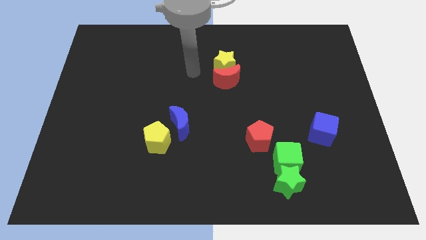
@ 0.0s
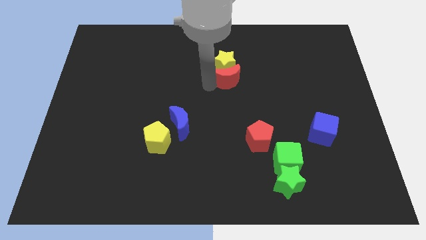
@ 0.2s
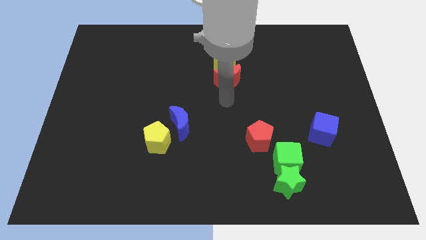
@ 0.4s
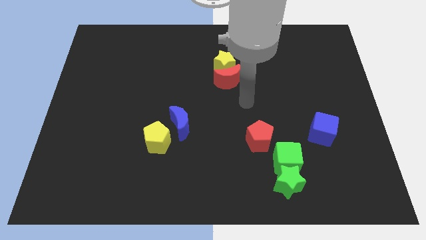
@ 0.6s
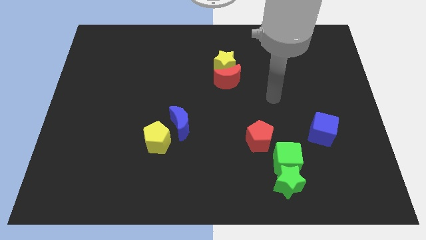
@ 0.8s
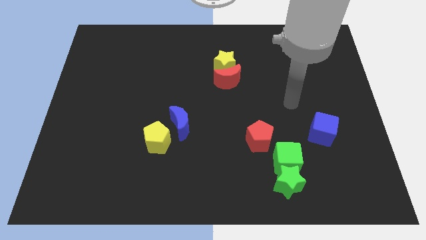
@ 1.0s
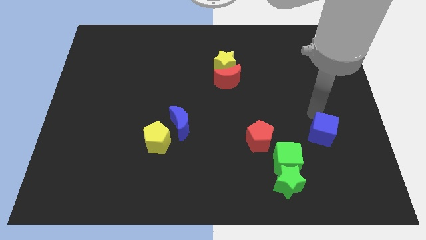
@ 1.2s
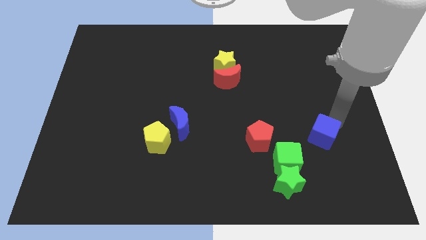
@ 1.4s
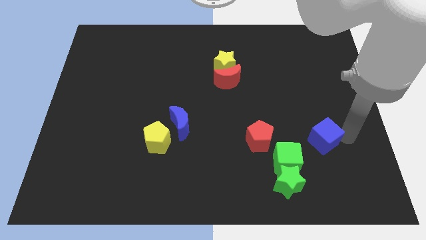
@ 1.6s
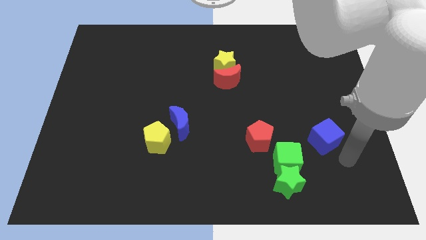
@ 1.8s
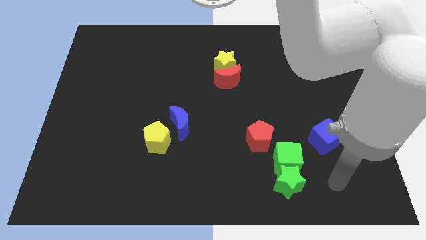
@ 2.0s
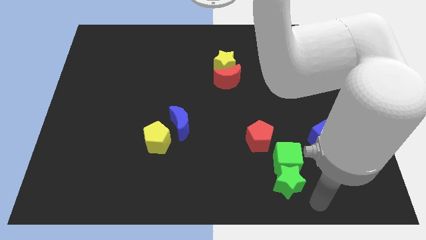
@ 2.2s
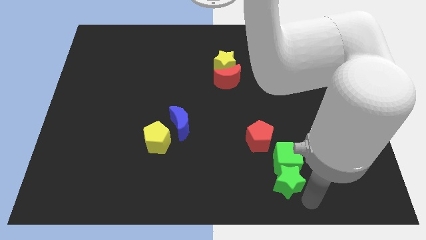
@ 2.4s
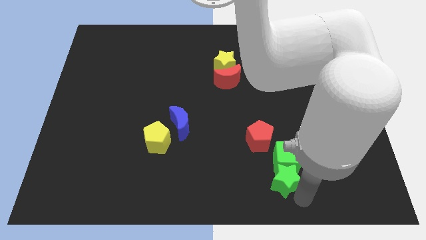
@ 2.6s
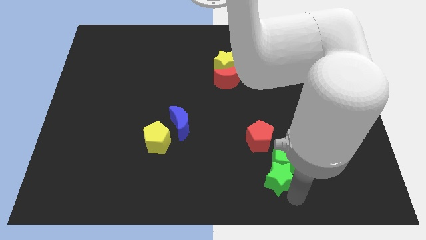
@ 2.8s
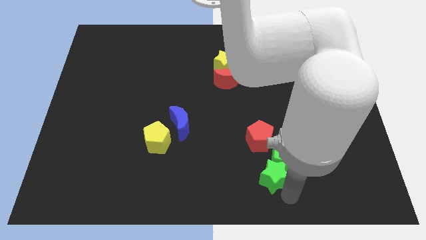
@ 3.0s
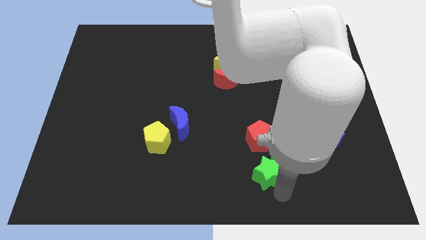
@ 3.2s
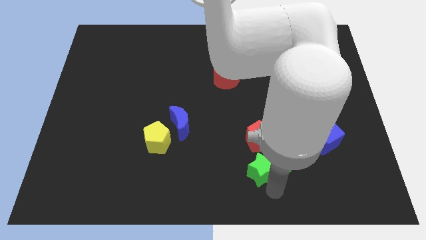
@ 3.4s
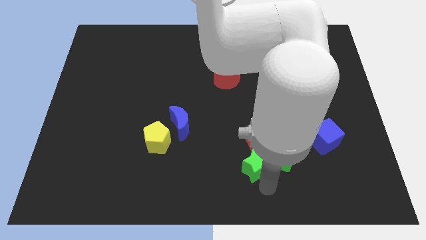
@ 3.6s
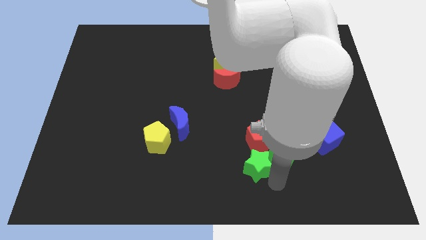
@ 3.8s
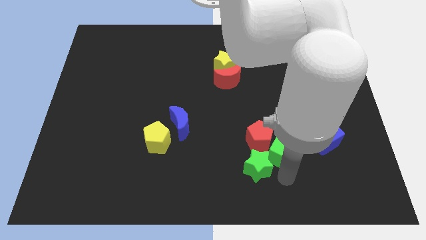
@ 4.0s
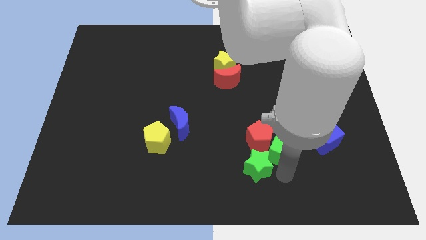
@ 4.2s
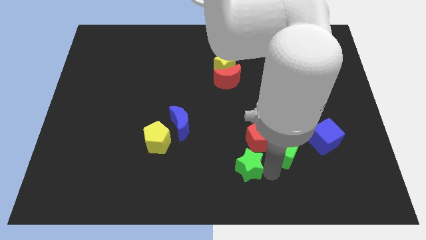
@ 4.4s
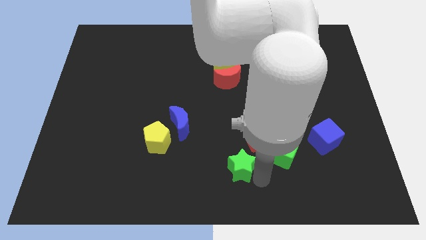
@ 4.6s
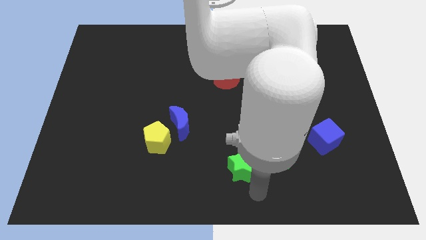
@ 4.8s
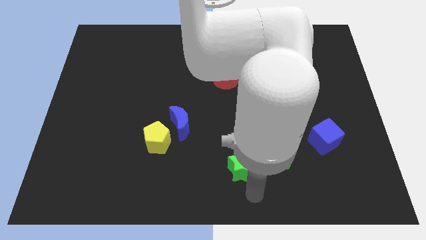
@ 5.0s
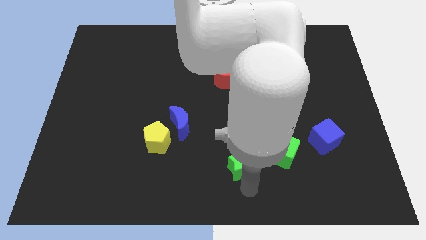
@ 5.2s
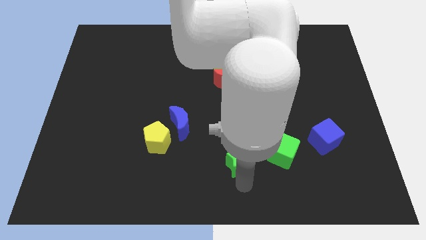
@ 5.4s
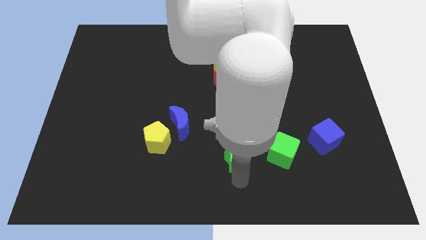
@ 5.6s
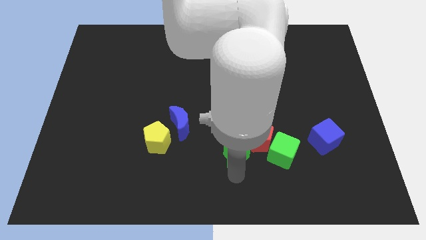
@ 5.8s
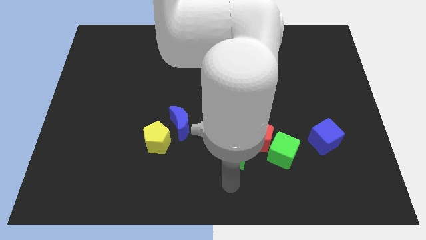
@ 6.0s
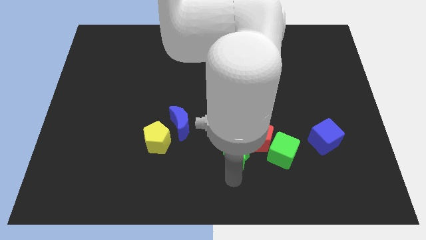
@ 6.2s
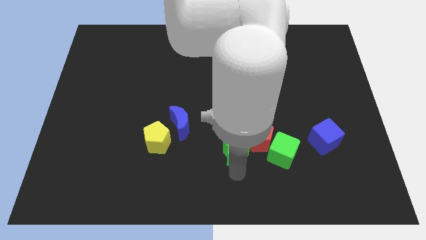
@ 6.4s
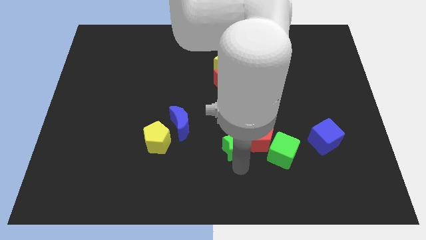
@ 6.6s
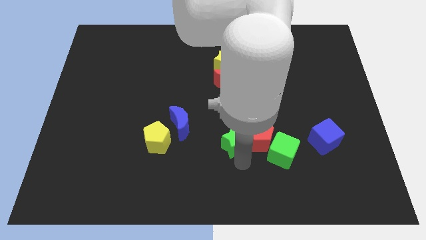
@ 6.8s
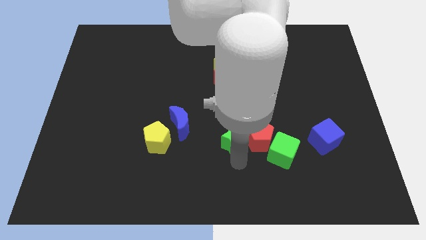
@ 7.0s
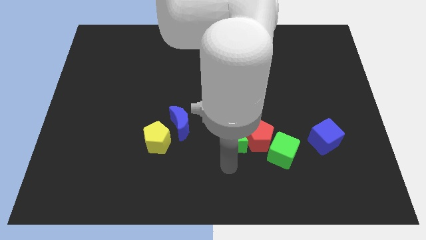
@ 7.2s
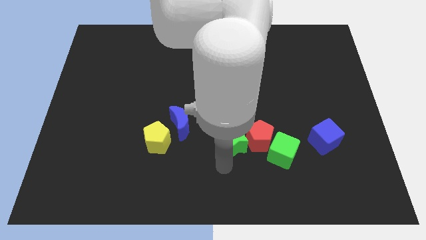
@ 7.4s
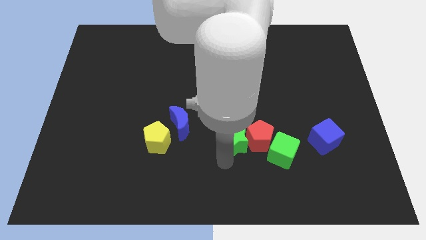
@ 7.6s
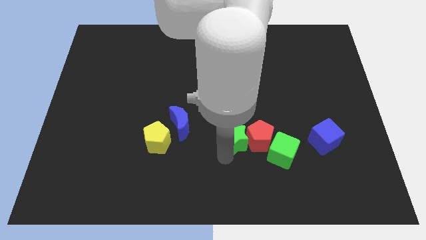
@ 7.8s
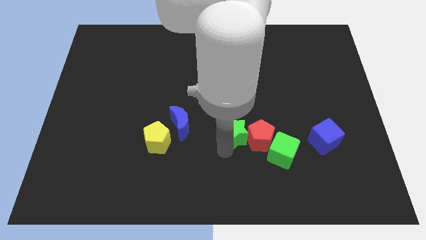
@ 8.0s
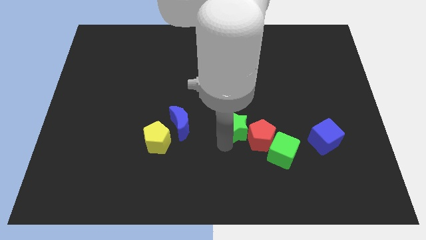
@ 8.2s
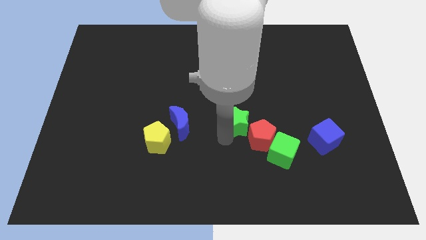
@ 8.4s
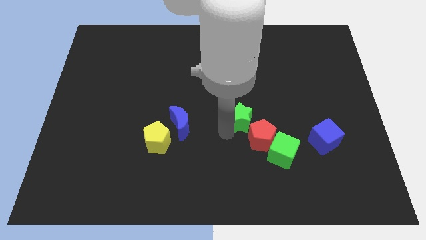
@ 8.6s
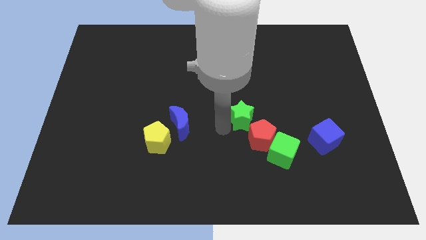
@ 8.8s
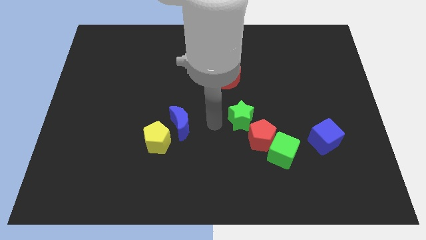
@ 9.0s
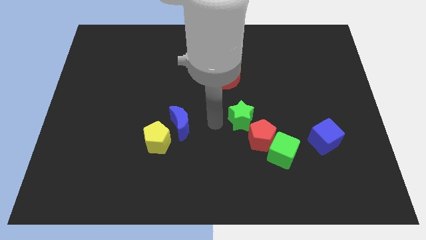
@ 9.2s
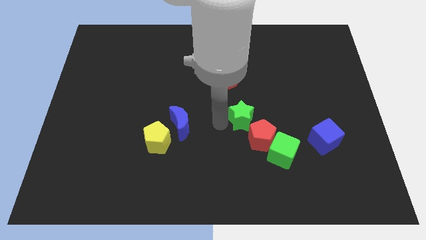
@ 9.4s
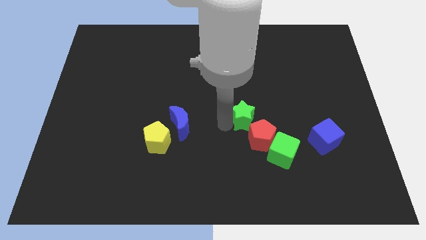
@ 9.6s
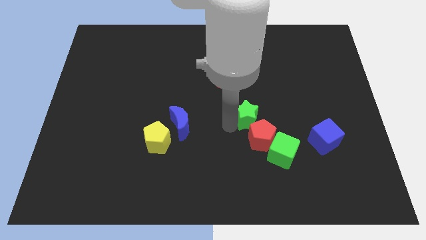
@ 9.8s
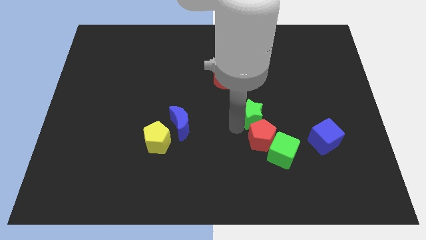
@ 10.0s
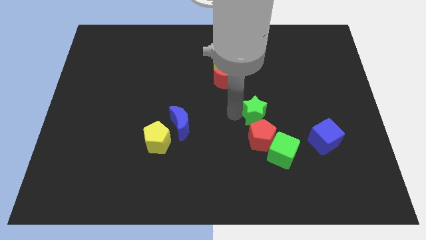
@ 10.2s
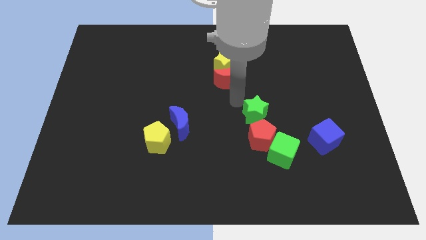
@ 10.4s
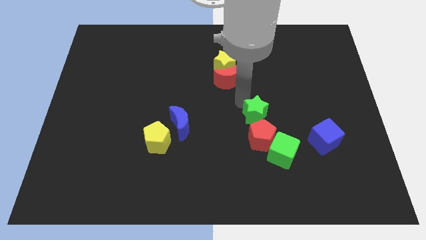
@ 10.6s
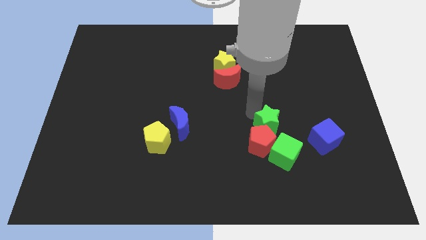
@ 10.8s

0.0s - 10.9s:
put the green star just left of the blue cube

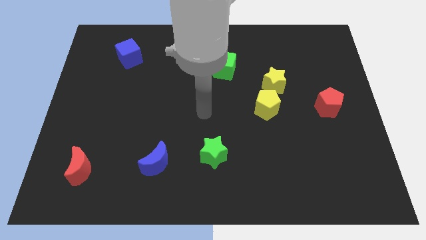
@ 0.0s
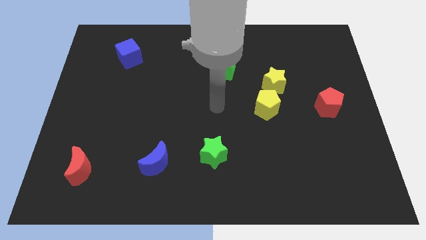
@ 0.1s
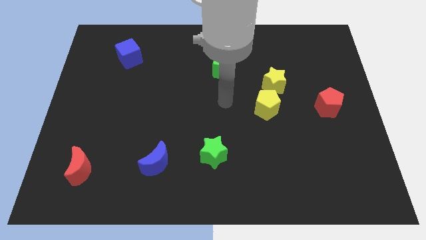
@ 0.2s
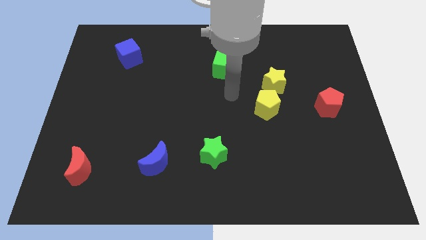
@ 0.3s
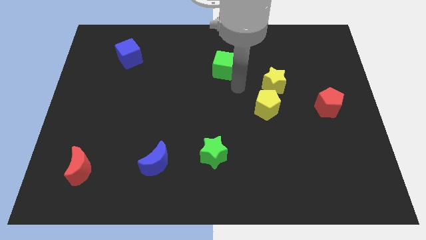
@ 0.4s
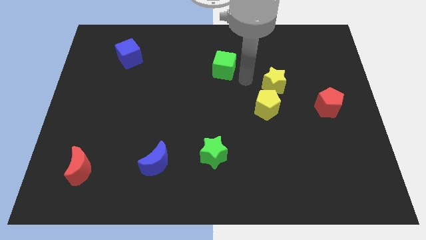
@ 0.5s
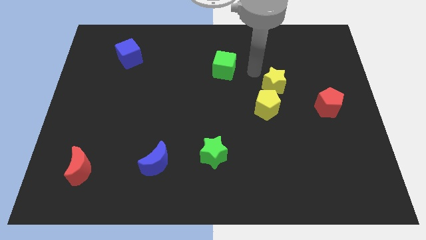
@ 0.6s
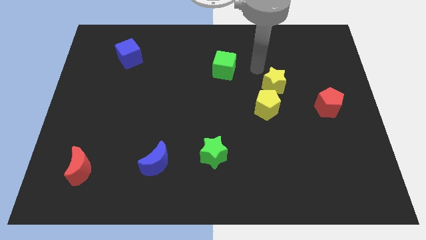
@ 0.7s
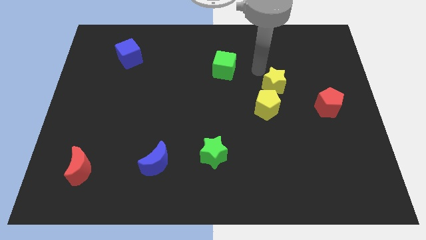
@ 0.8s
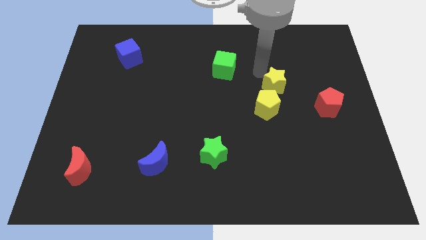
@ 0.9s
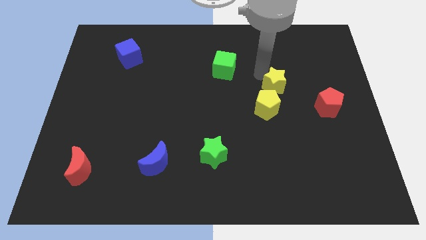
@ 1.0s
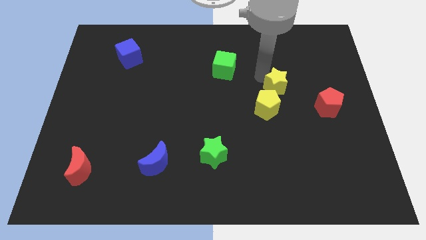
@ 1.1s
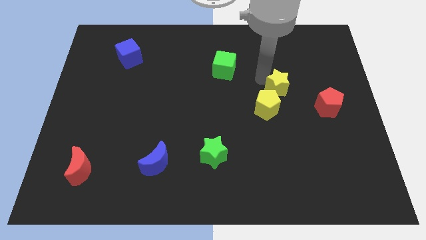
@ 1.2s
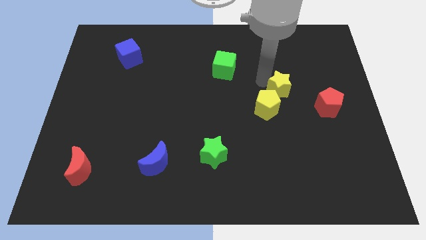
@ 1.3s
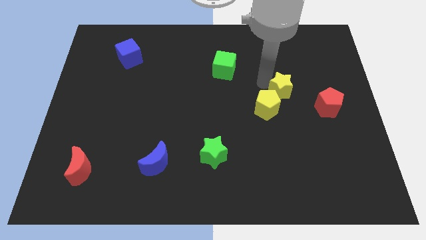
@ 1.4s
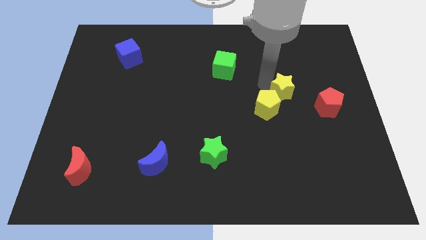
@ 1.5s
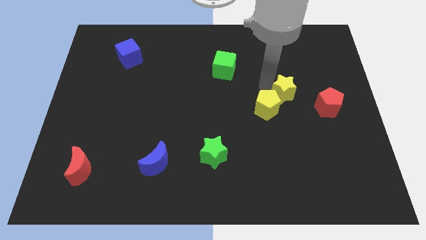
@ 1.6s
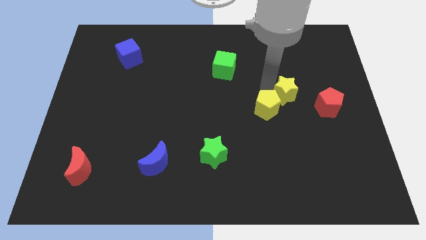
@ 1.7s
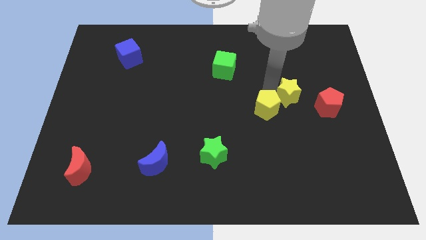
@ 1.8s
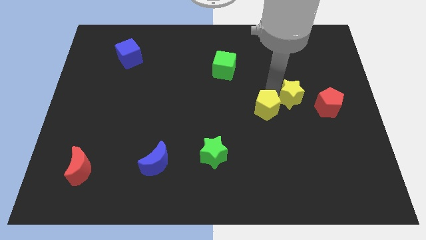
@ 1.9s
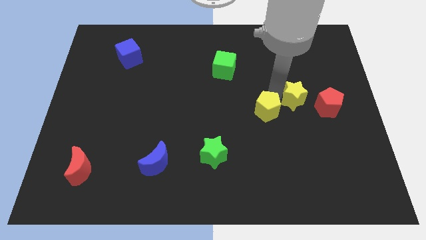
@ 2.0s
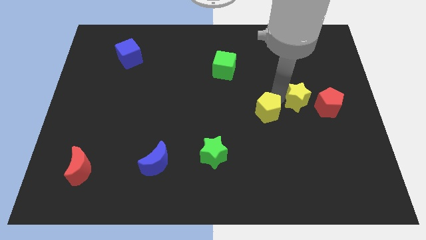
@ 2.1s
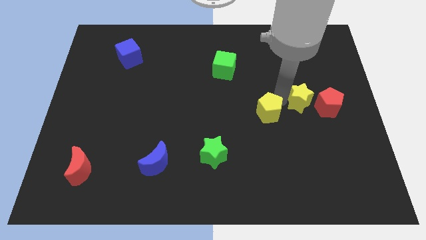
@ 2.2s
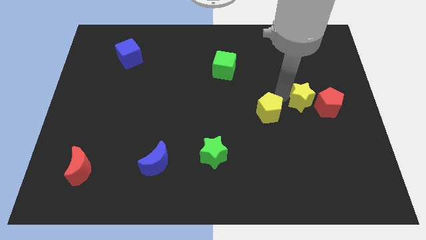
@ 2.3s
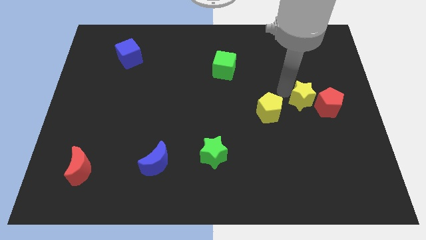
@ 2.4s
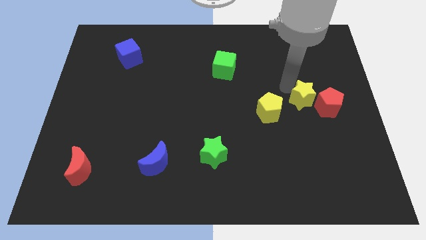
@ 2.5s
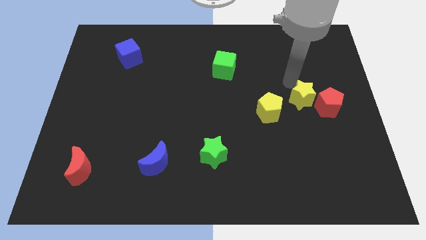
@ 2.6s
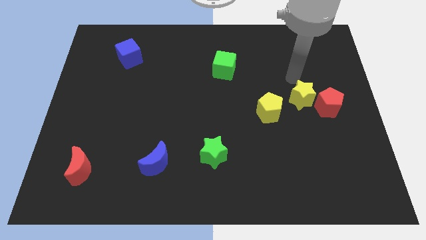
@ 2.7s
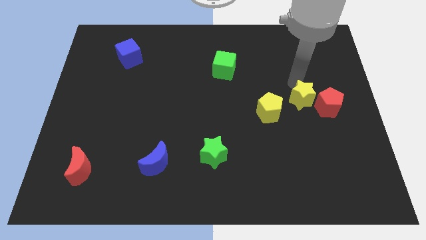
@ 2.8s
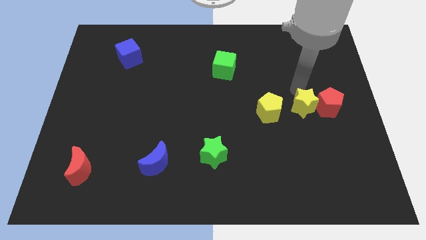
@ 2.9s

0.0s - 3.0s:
push the yellow star to the bottom left side of the red pentagon
